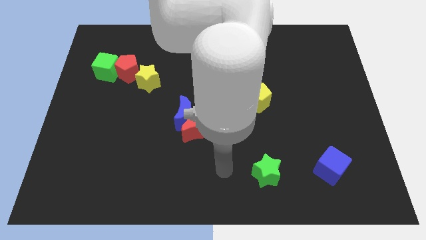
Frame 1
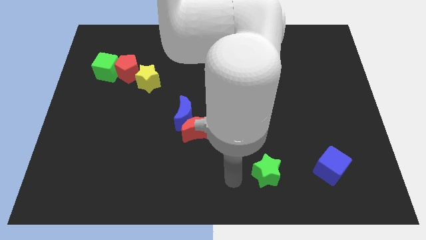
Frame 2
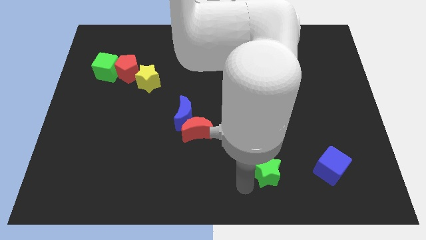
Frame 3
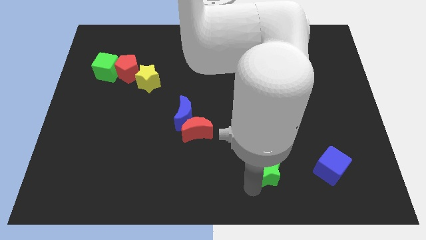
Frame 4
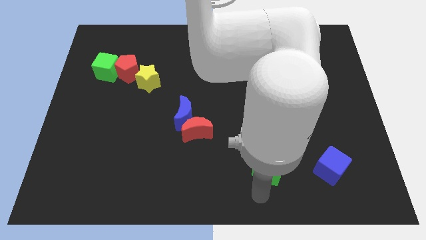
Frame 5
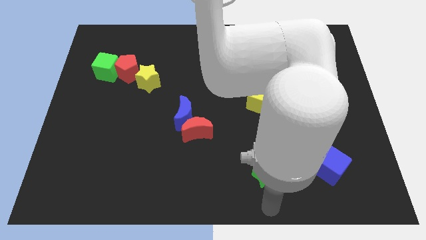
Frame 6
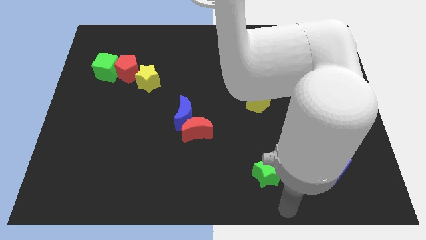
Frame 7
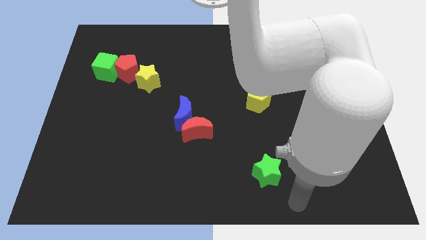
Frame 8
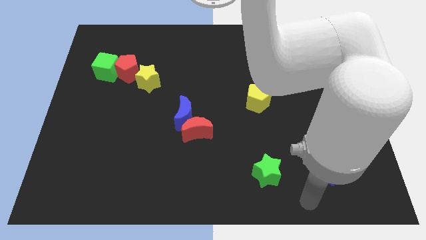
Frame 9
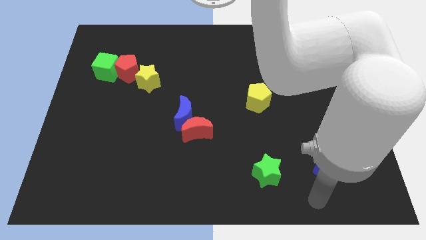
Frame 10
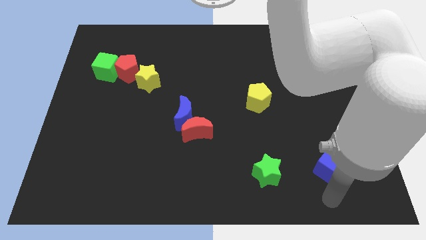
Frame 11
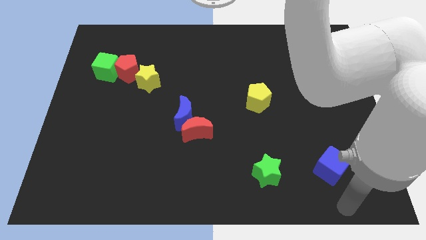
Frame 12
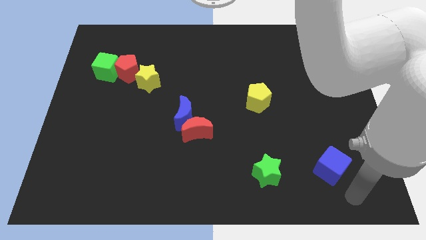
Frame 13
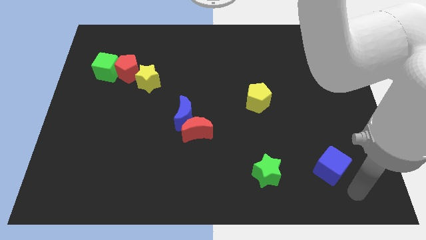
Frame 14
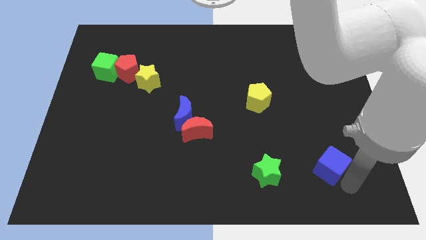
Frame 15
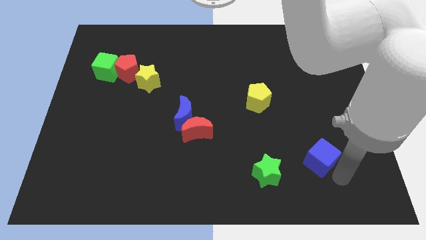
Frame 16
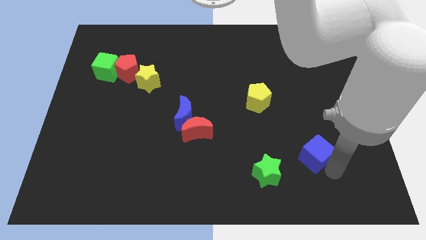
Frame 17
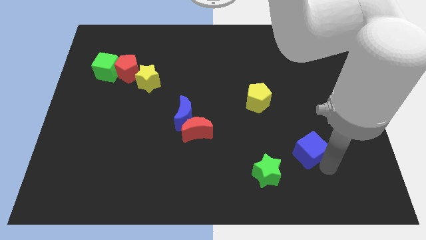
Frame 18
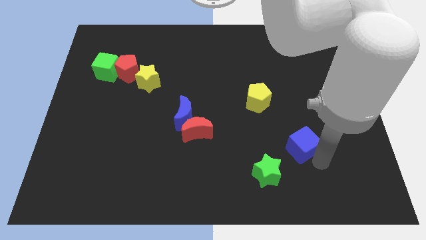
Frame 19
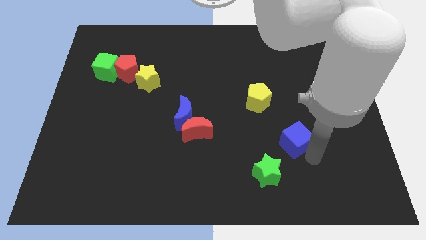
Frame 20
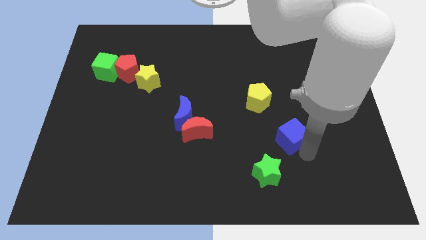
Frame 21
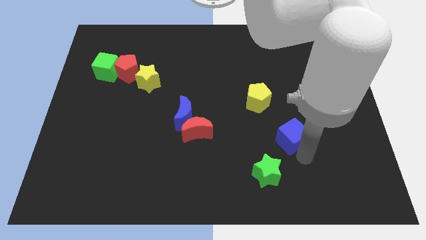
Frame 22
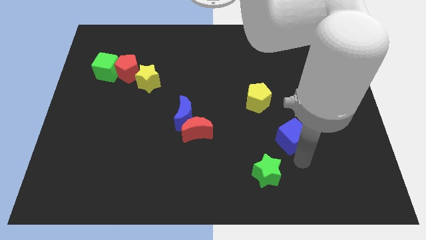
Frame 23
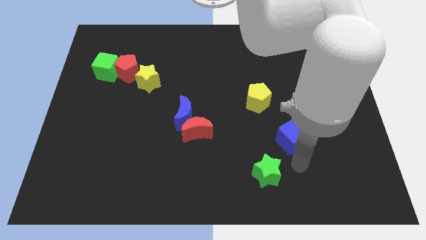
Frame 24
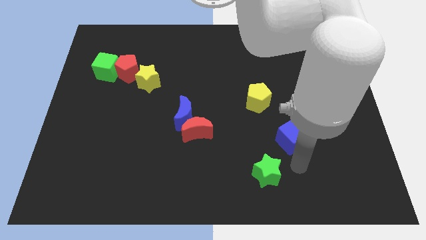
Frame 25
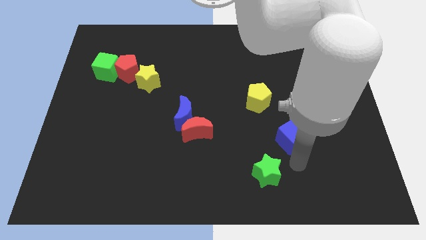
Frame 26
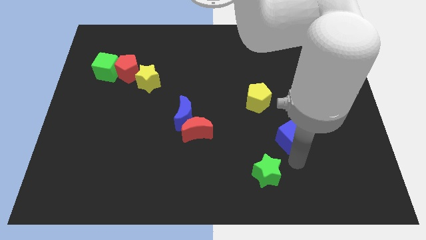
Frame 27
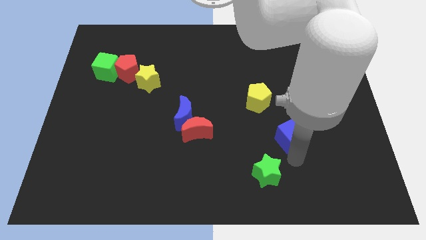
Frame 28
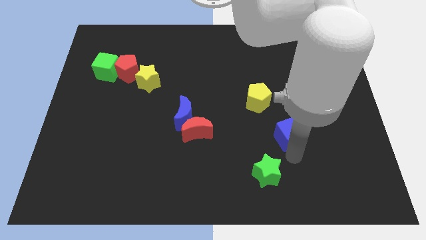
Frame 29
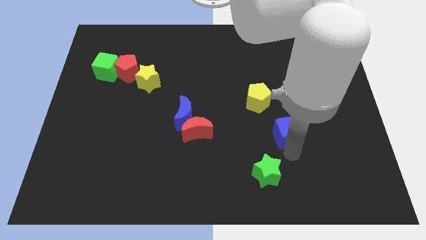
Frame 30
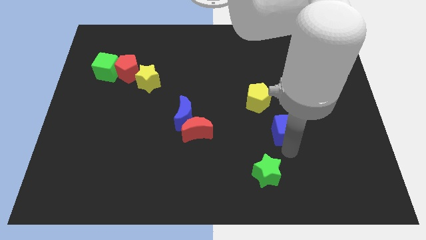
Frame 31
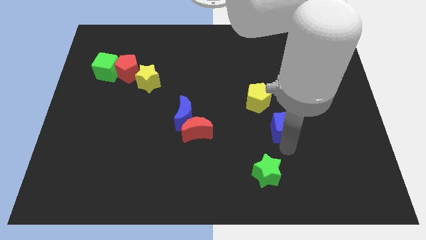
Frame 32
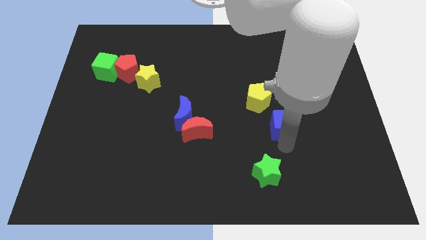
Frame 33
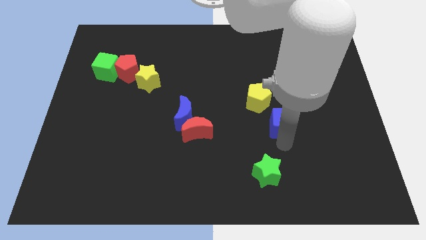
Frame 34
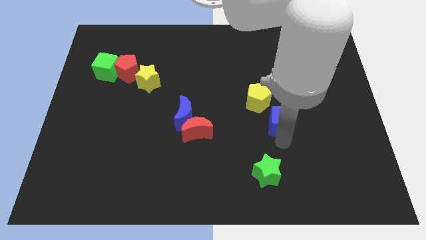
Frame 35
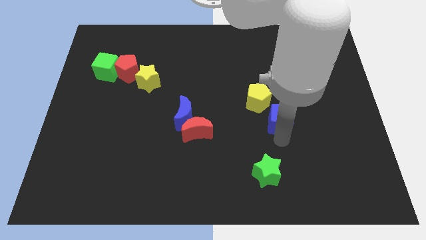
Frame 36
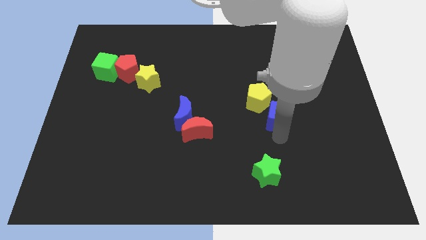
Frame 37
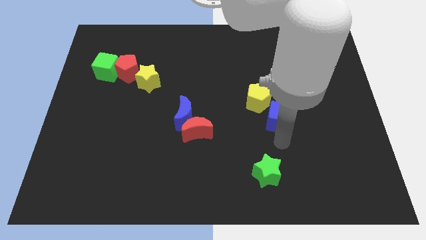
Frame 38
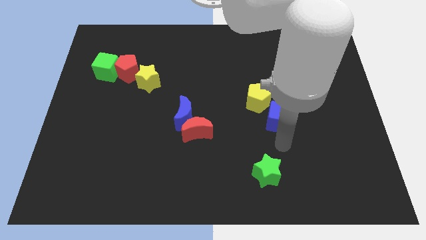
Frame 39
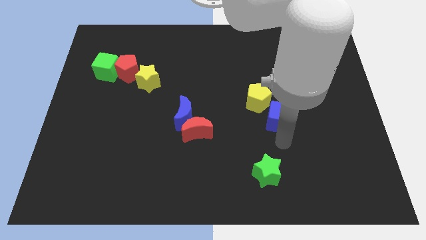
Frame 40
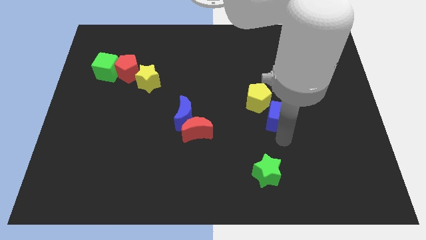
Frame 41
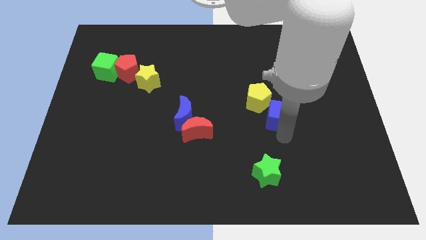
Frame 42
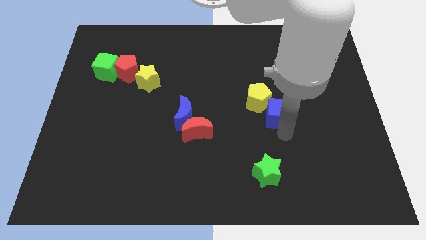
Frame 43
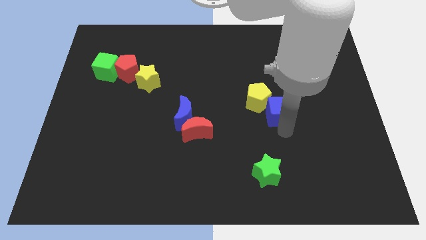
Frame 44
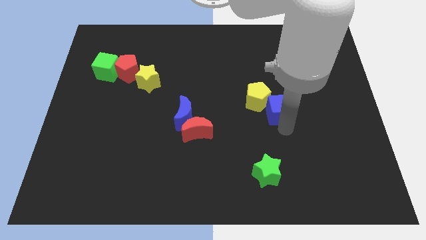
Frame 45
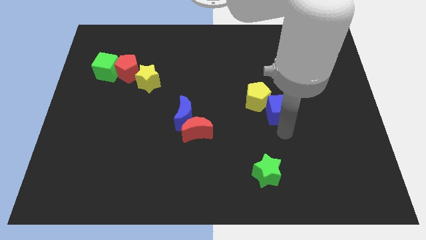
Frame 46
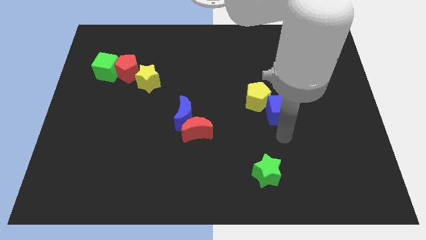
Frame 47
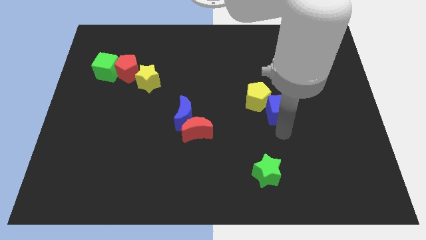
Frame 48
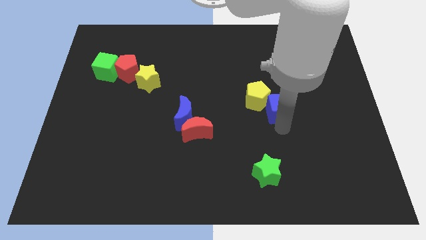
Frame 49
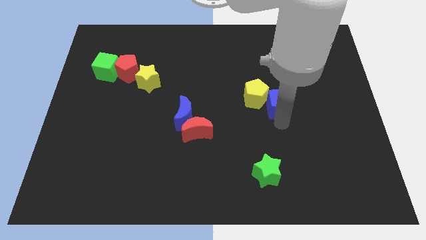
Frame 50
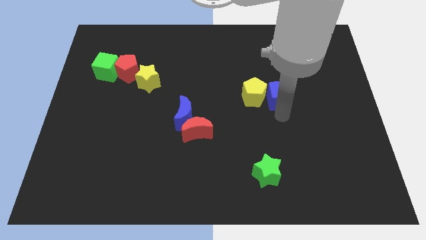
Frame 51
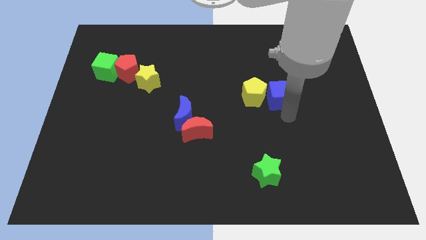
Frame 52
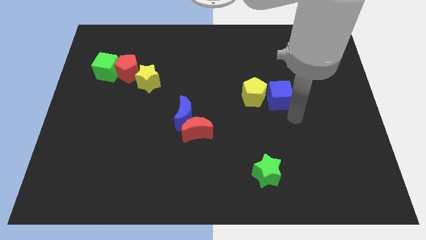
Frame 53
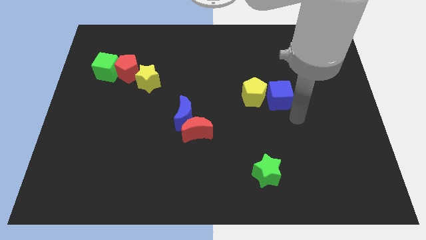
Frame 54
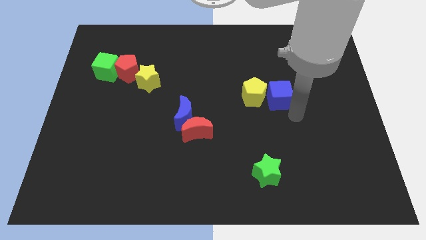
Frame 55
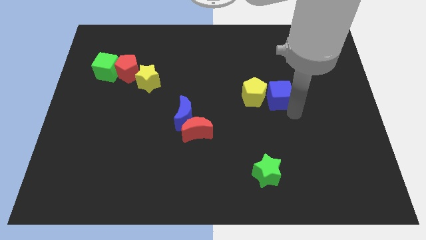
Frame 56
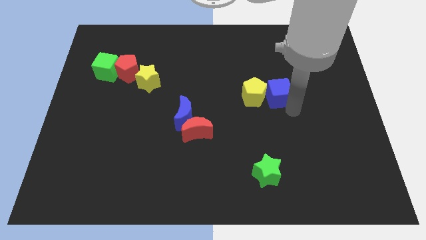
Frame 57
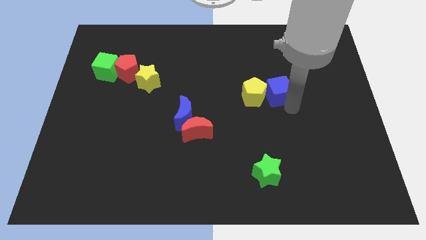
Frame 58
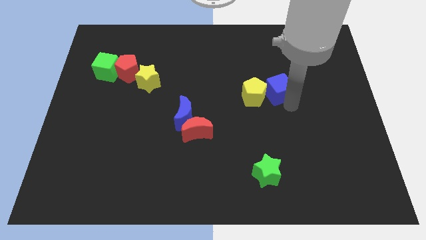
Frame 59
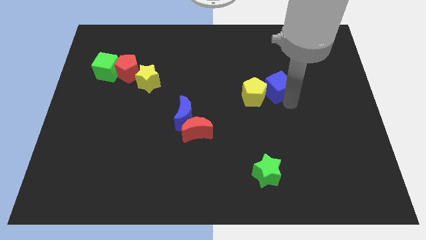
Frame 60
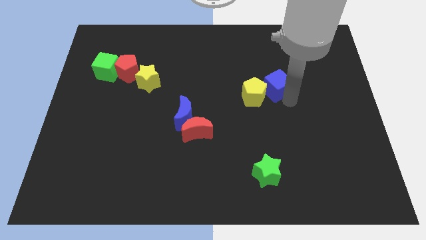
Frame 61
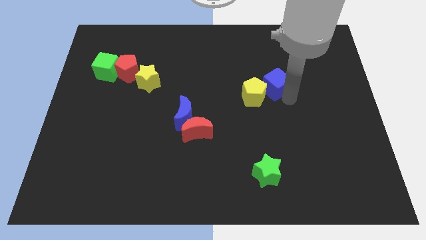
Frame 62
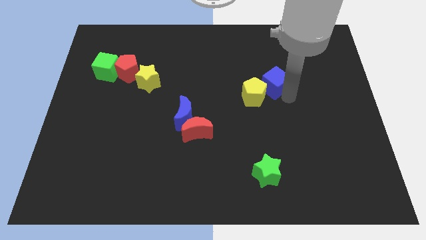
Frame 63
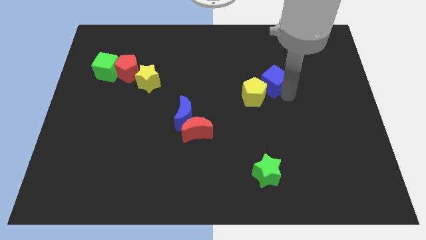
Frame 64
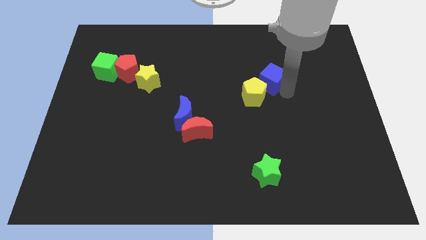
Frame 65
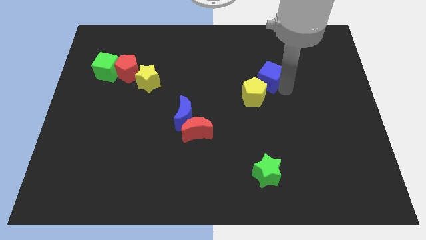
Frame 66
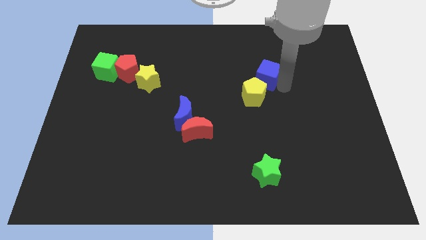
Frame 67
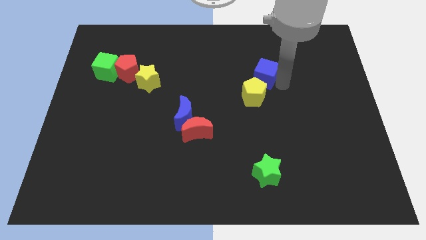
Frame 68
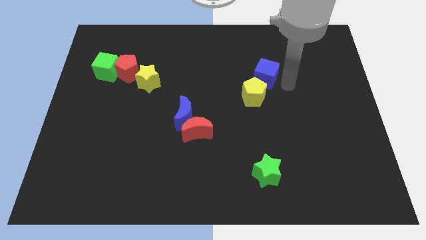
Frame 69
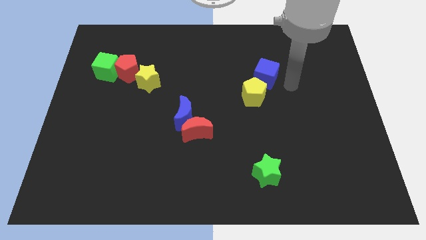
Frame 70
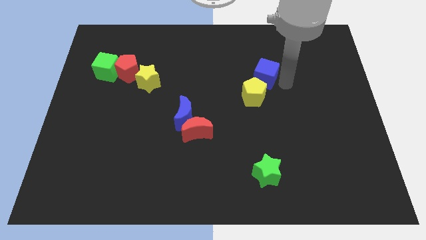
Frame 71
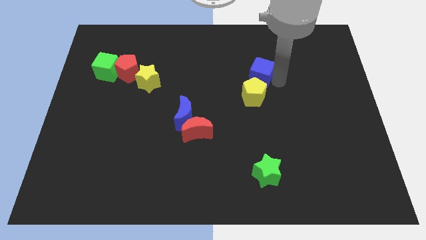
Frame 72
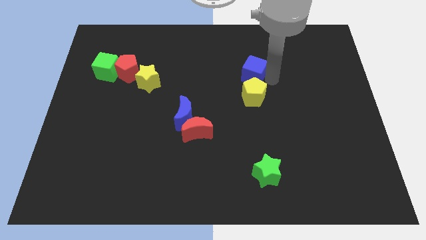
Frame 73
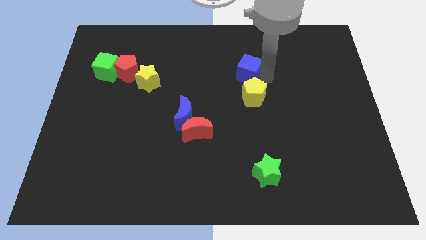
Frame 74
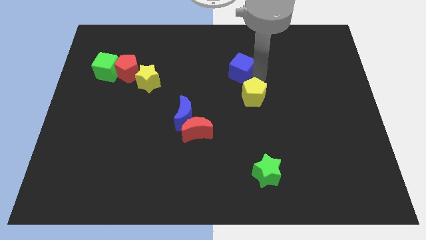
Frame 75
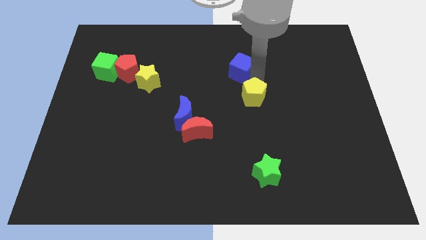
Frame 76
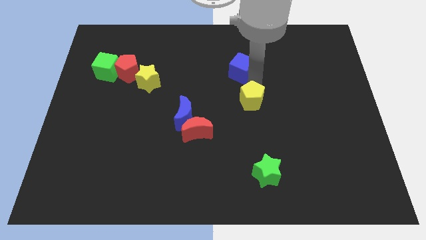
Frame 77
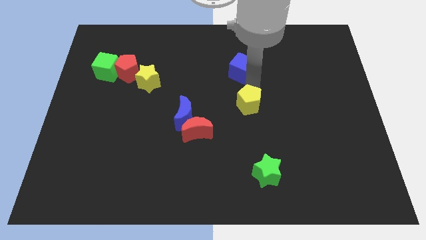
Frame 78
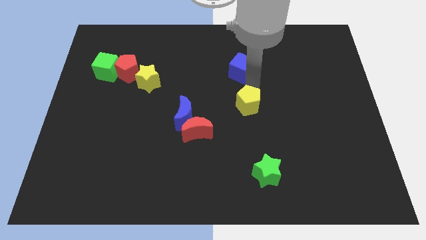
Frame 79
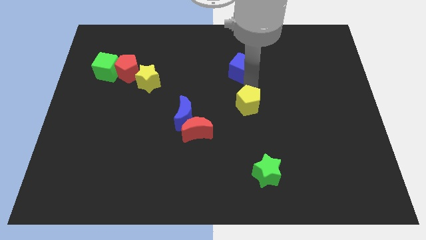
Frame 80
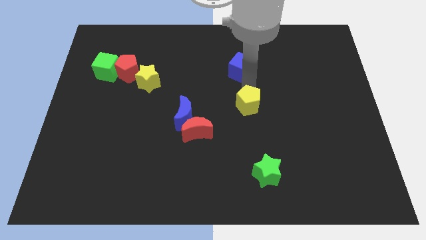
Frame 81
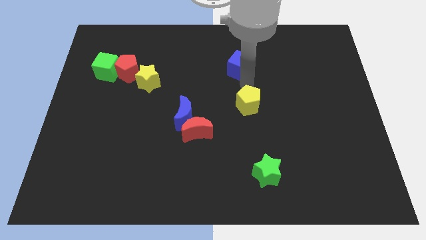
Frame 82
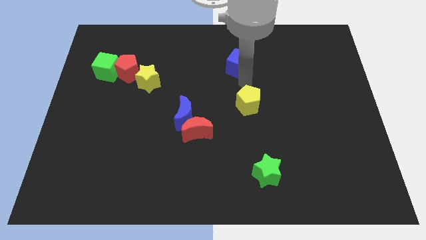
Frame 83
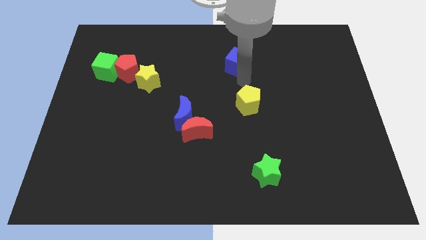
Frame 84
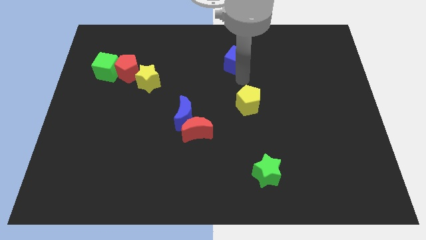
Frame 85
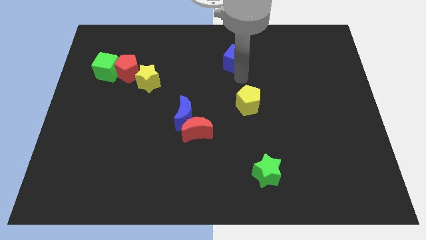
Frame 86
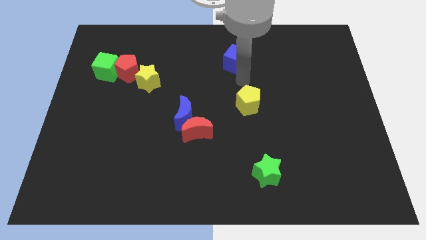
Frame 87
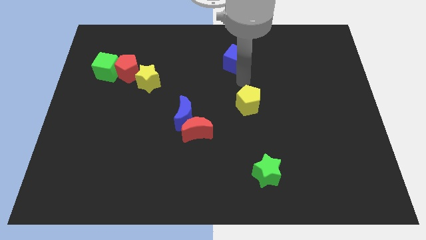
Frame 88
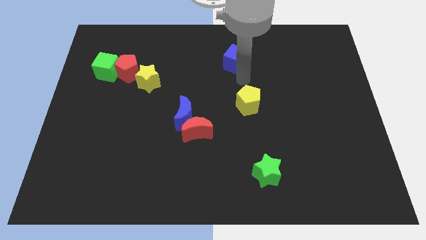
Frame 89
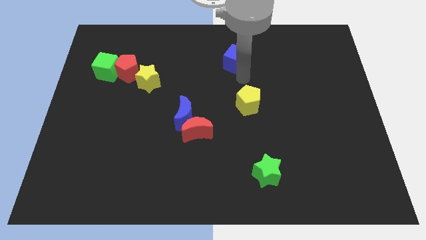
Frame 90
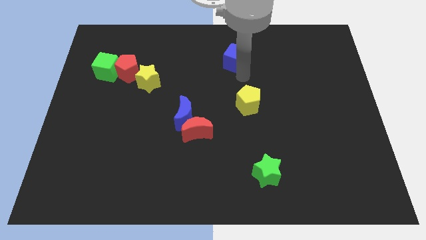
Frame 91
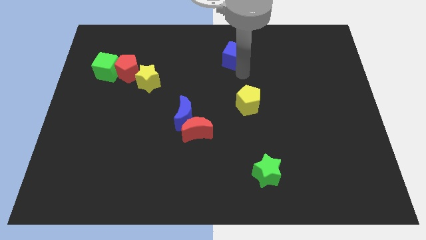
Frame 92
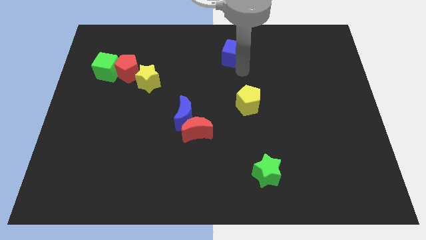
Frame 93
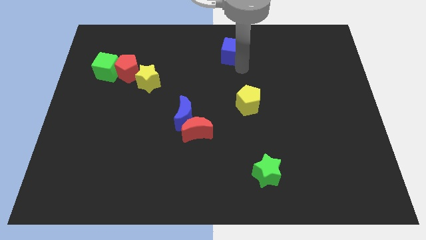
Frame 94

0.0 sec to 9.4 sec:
move the blue cube to the towards your base
